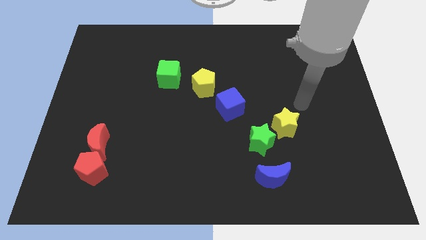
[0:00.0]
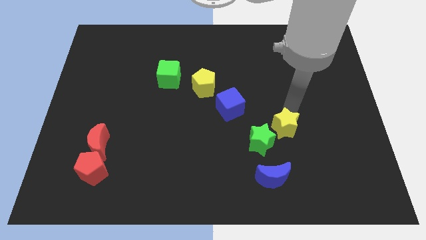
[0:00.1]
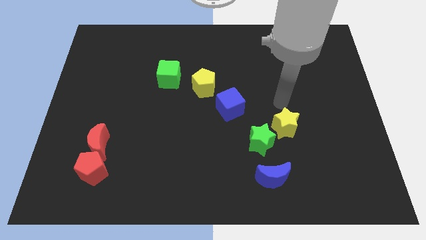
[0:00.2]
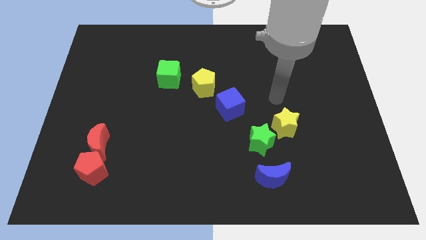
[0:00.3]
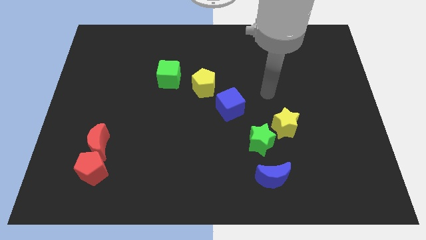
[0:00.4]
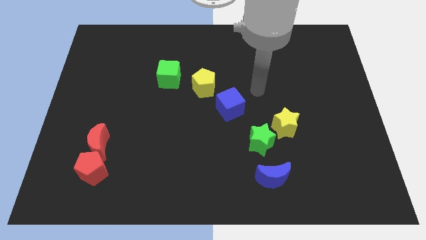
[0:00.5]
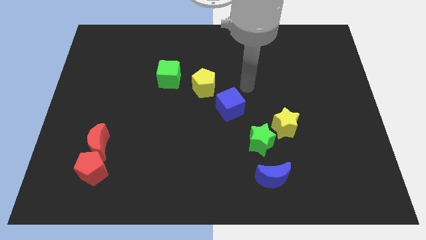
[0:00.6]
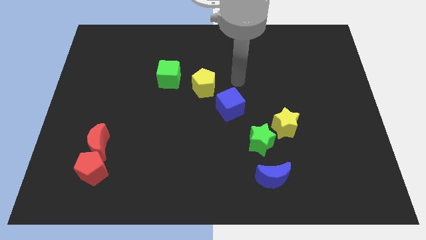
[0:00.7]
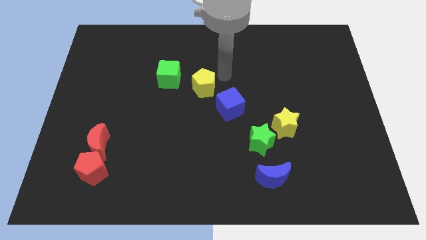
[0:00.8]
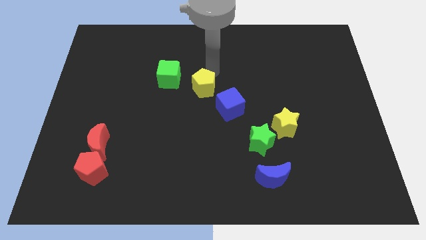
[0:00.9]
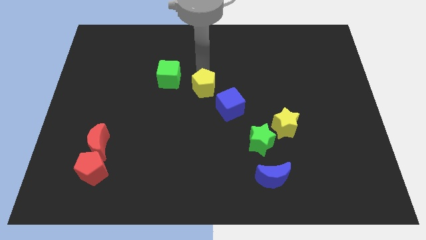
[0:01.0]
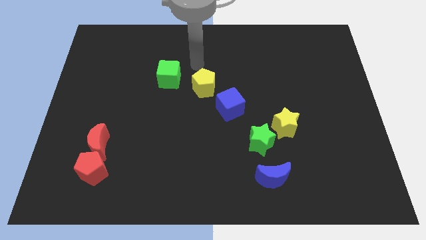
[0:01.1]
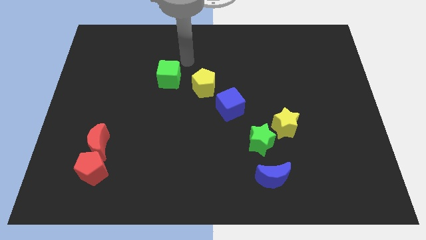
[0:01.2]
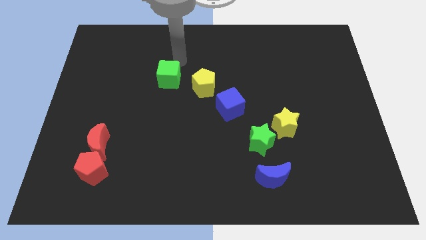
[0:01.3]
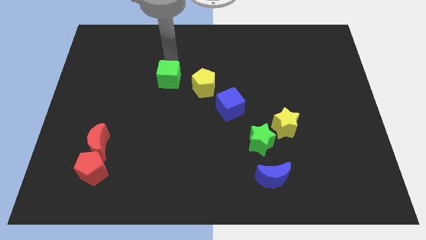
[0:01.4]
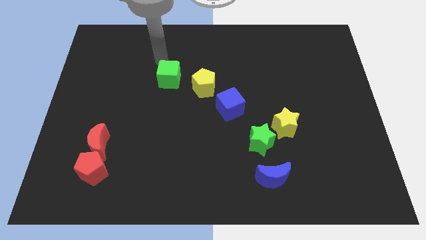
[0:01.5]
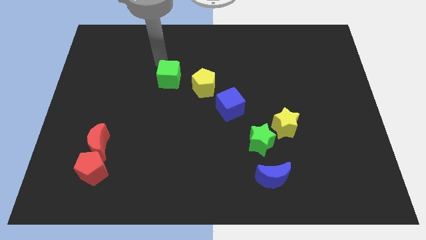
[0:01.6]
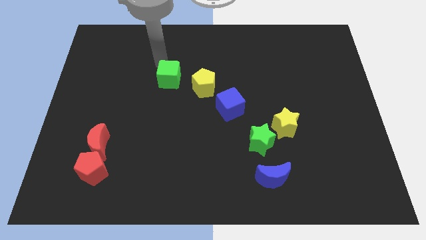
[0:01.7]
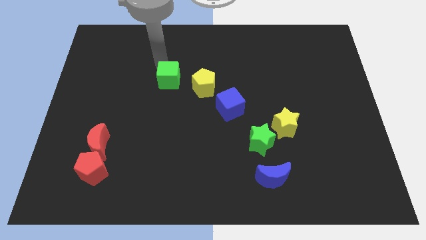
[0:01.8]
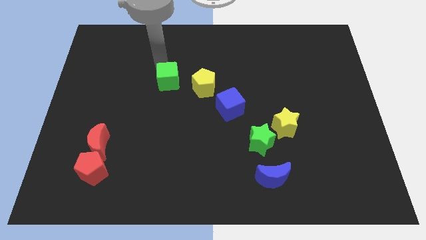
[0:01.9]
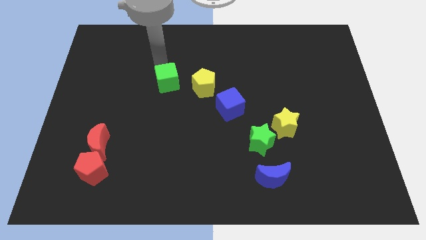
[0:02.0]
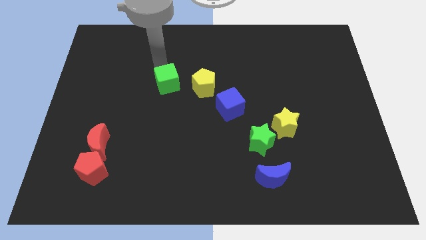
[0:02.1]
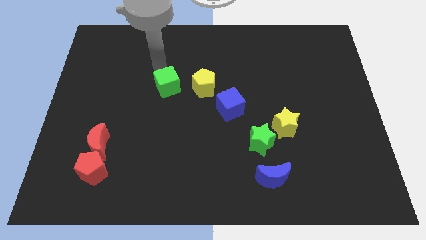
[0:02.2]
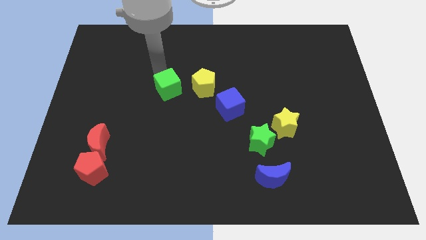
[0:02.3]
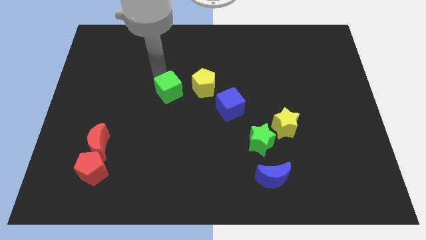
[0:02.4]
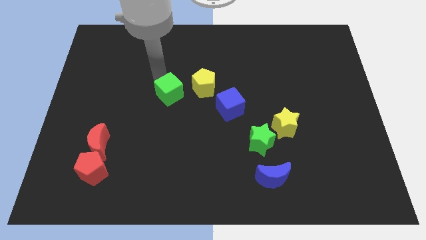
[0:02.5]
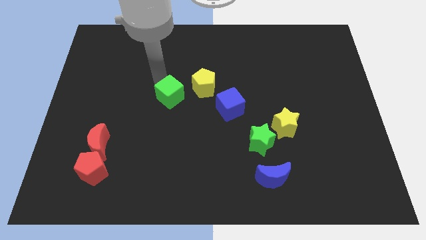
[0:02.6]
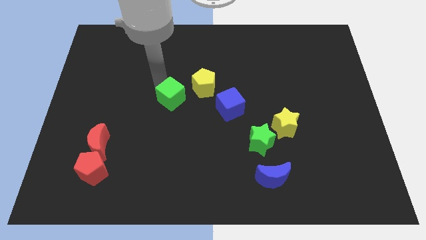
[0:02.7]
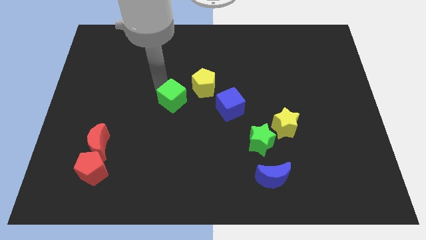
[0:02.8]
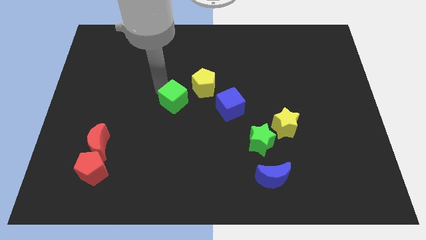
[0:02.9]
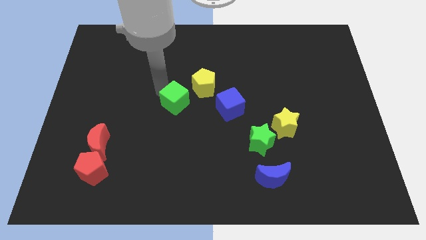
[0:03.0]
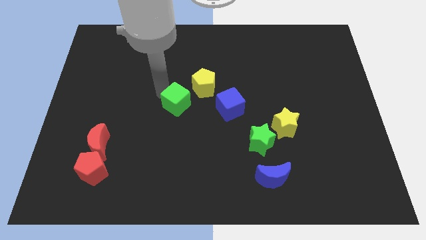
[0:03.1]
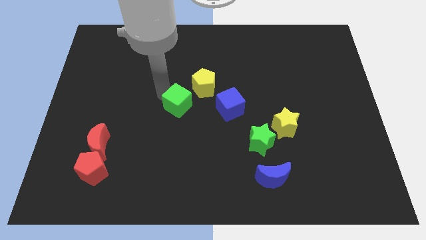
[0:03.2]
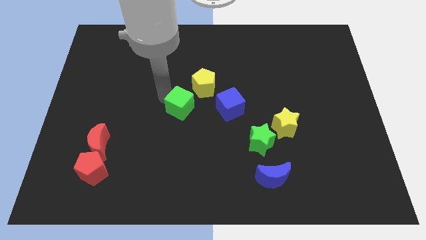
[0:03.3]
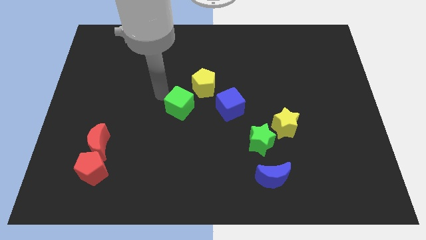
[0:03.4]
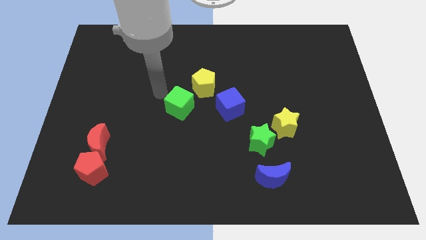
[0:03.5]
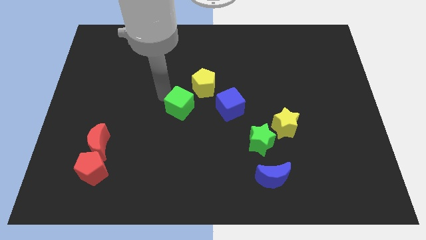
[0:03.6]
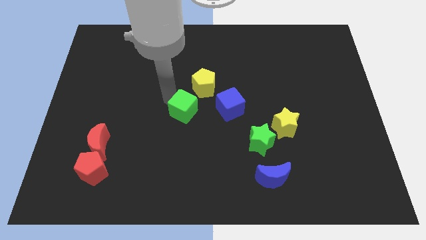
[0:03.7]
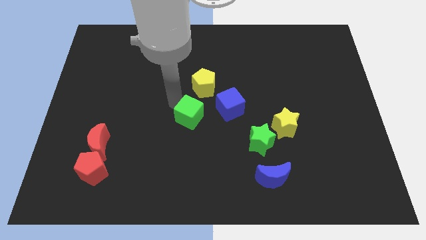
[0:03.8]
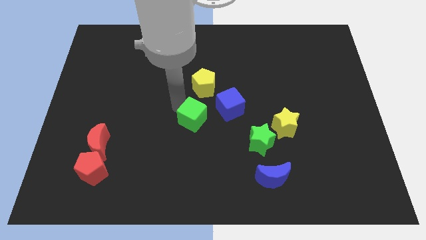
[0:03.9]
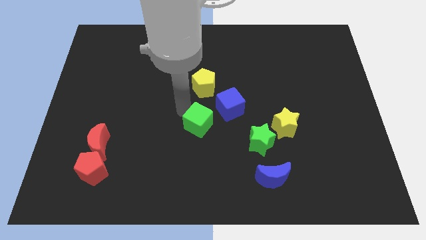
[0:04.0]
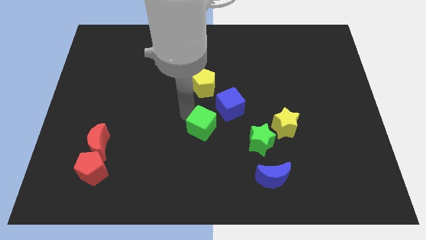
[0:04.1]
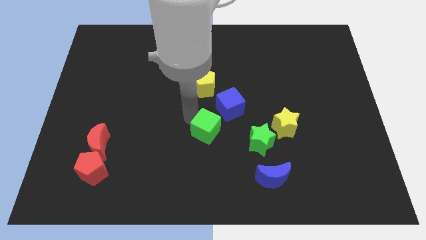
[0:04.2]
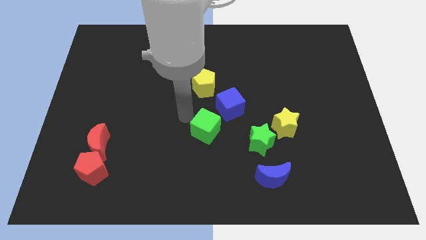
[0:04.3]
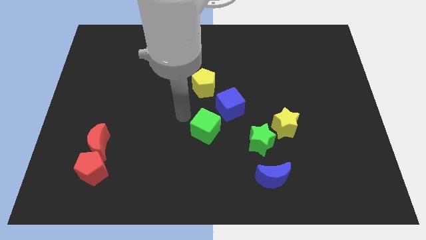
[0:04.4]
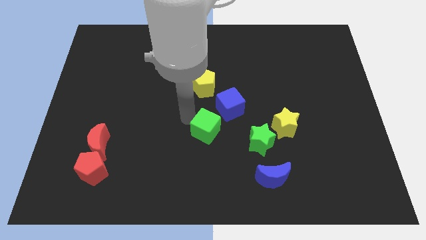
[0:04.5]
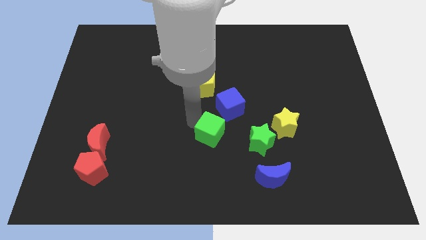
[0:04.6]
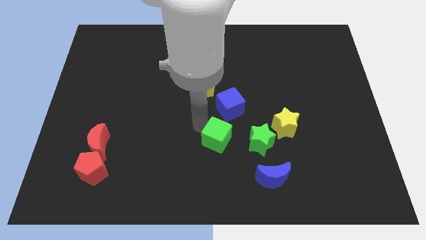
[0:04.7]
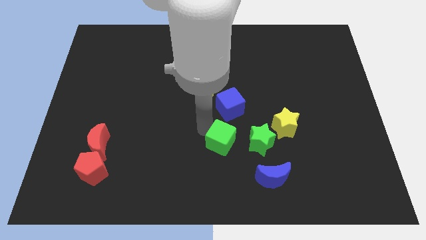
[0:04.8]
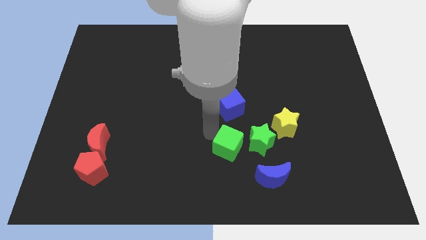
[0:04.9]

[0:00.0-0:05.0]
put the green cube to the top left side of the blue moon

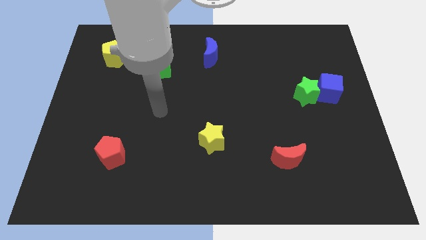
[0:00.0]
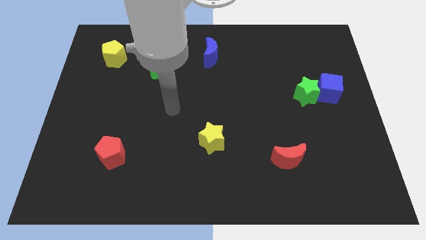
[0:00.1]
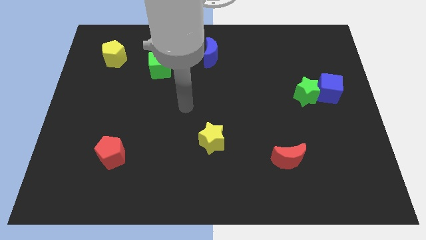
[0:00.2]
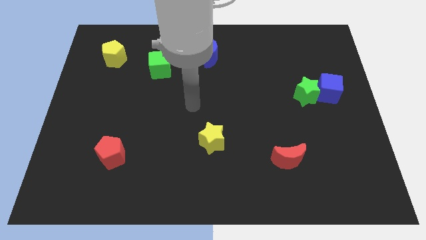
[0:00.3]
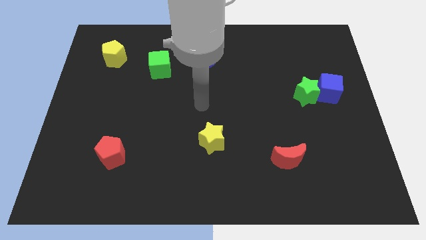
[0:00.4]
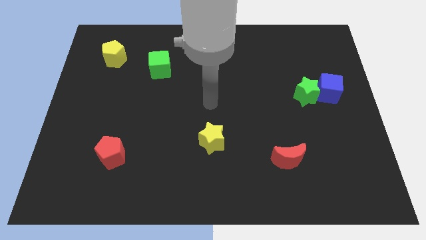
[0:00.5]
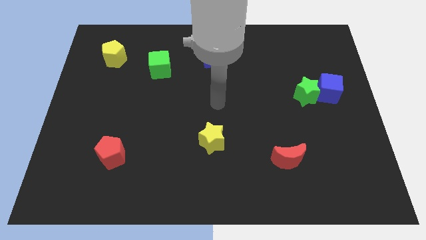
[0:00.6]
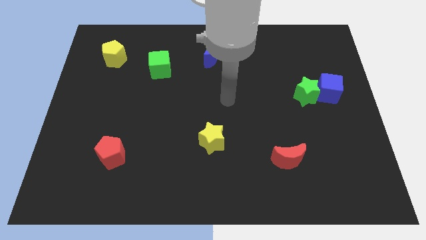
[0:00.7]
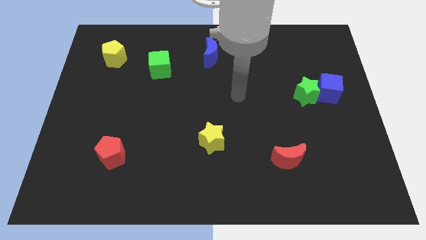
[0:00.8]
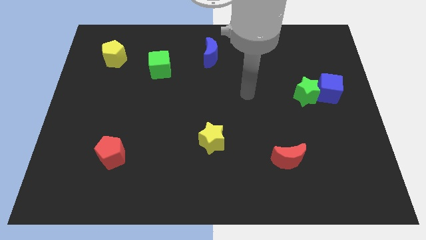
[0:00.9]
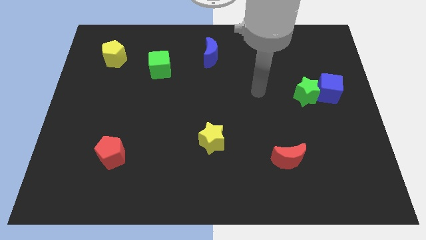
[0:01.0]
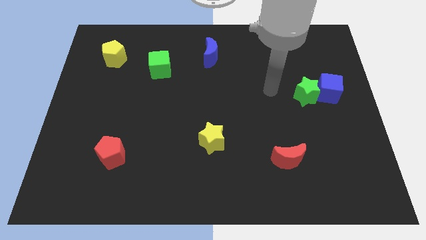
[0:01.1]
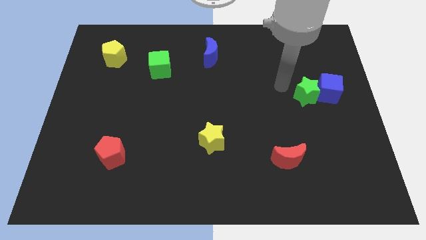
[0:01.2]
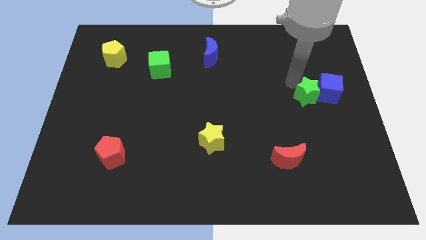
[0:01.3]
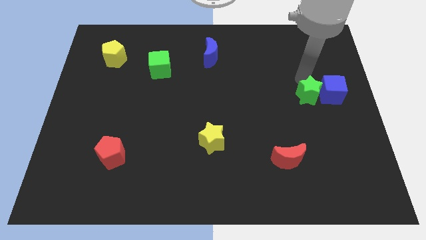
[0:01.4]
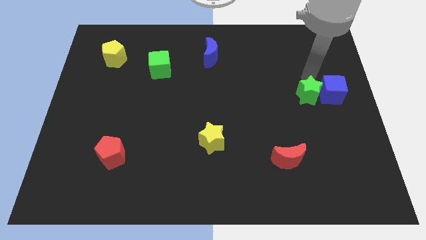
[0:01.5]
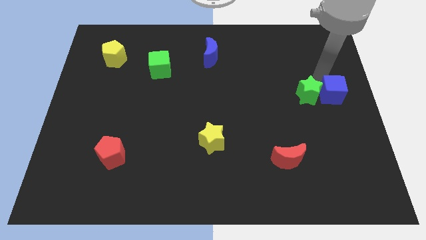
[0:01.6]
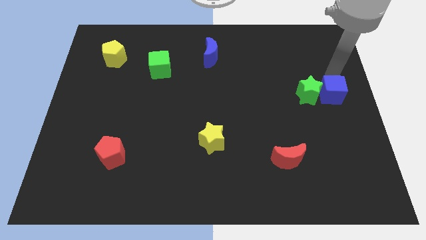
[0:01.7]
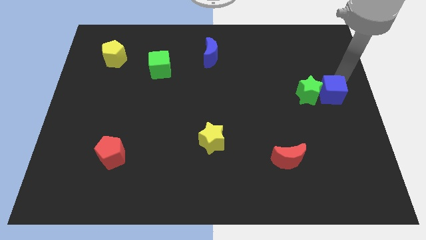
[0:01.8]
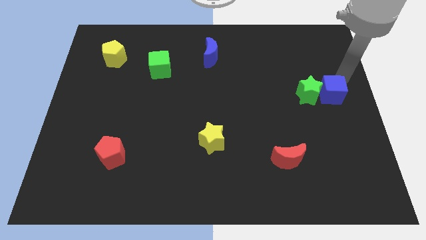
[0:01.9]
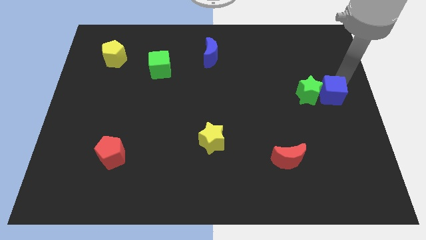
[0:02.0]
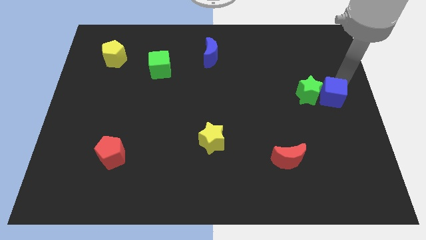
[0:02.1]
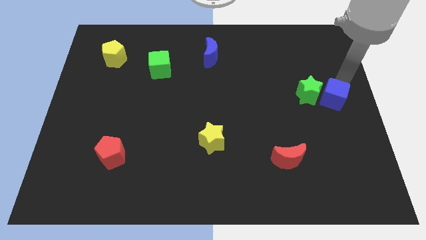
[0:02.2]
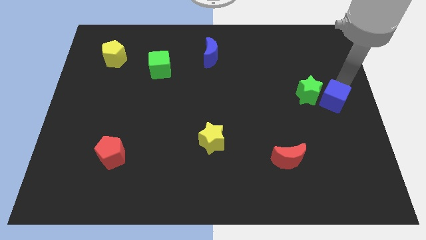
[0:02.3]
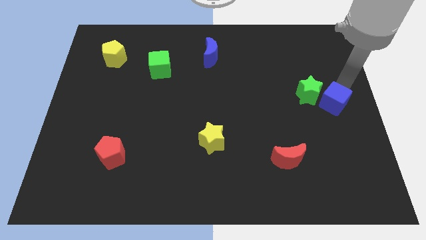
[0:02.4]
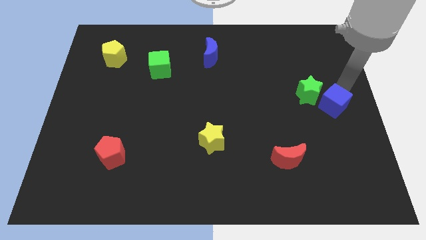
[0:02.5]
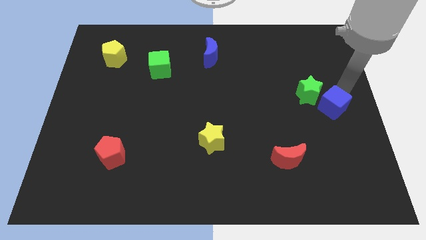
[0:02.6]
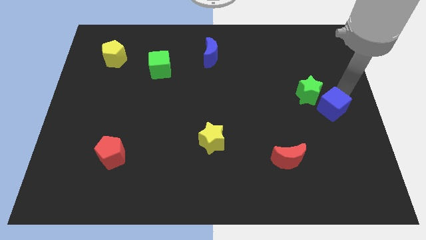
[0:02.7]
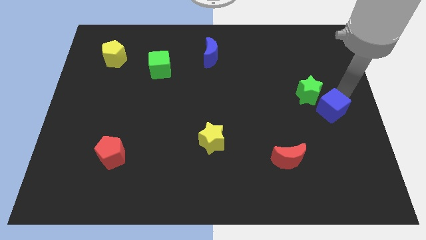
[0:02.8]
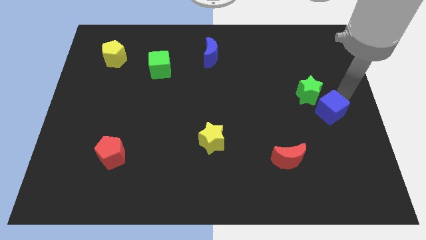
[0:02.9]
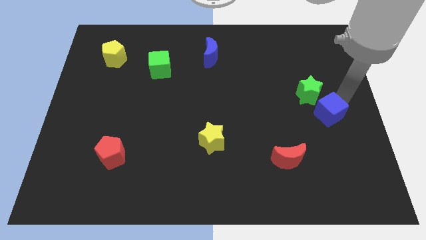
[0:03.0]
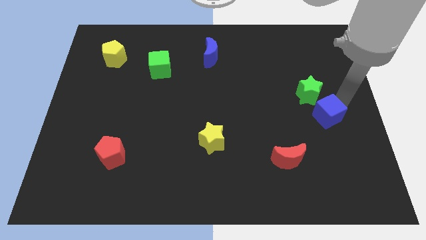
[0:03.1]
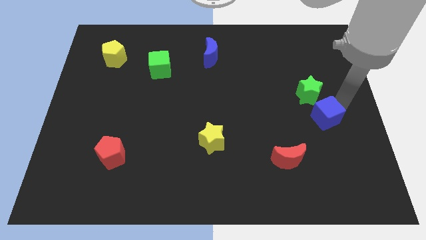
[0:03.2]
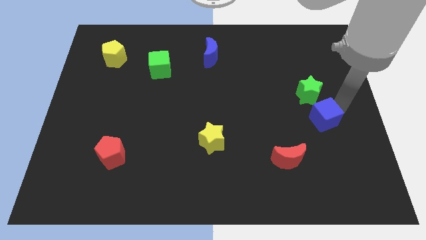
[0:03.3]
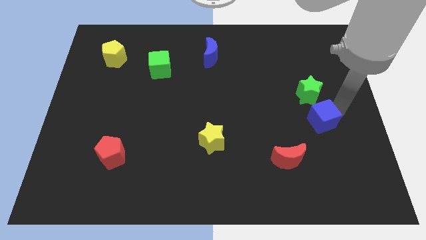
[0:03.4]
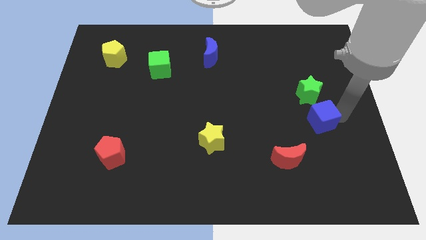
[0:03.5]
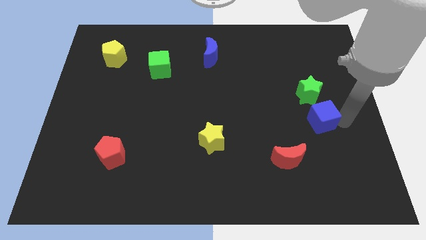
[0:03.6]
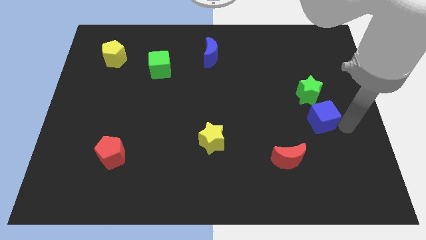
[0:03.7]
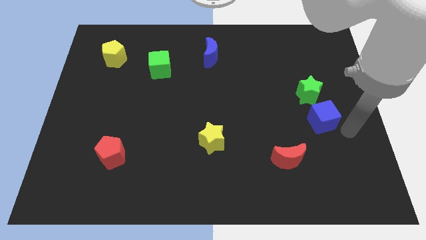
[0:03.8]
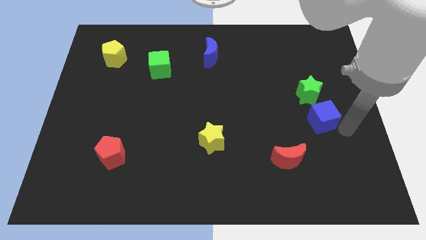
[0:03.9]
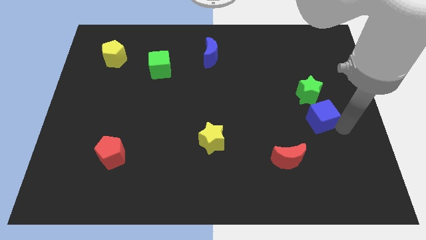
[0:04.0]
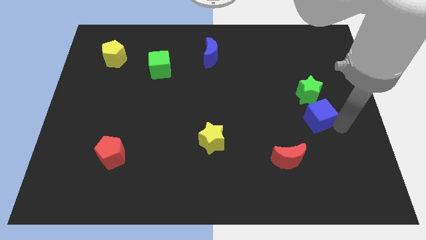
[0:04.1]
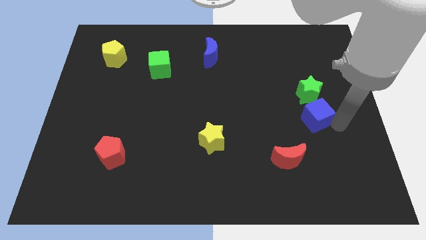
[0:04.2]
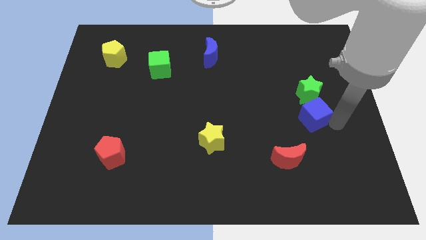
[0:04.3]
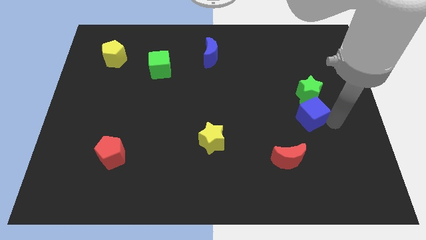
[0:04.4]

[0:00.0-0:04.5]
slide the blue cube to the bottom left side of the green star
